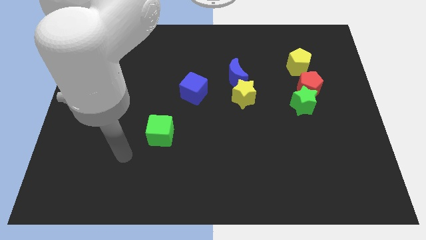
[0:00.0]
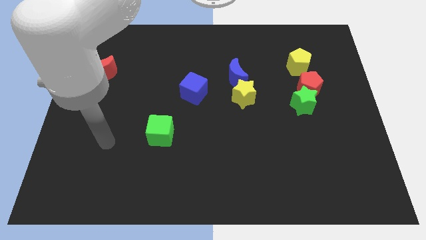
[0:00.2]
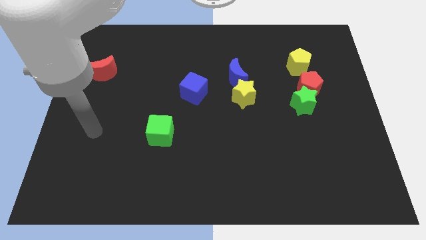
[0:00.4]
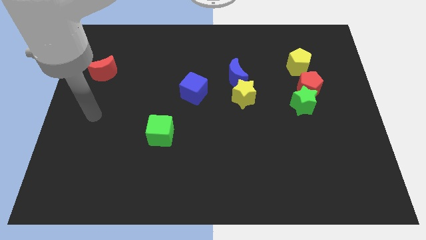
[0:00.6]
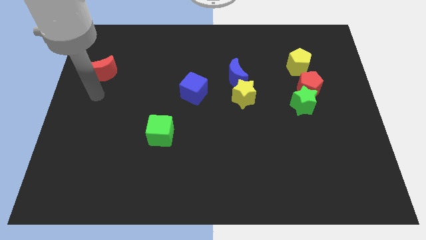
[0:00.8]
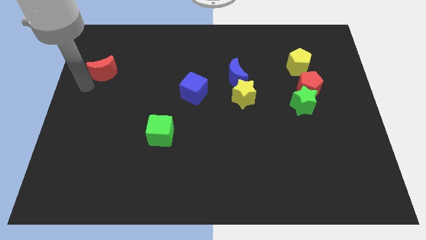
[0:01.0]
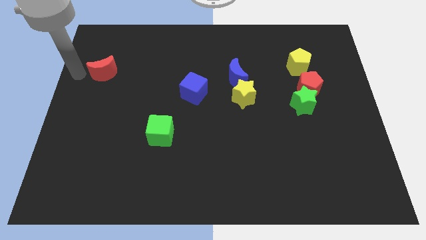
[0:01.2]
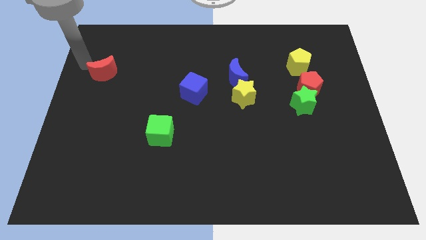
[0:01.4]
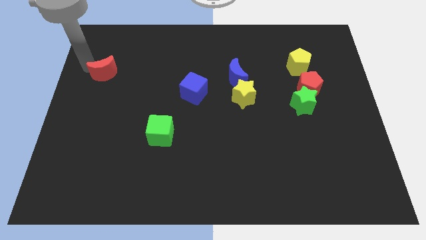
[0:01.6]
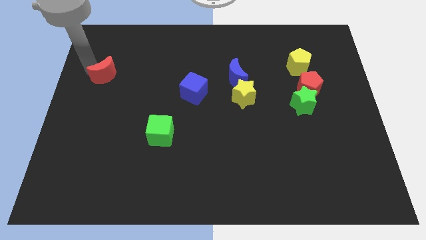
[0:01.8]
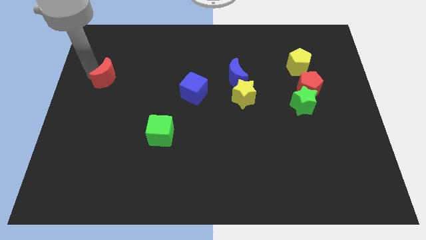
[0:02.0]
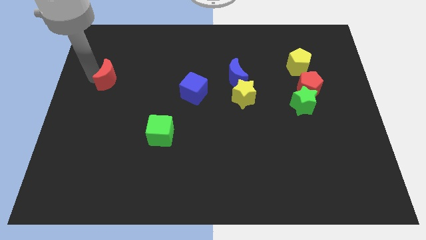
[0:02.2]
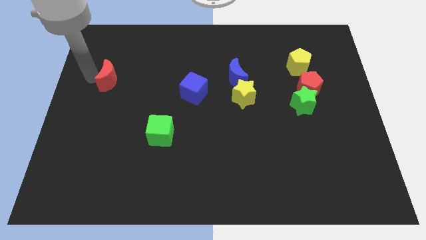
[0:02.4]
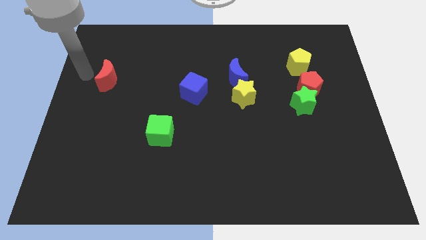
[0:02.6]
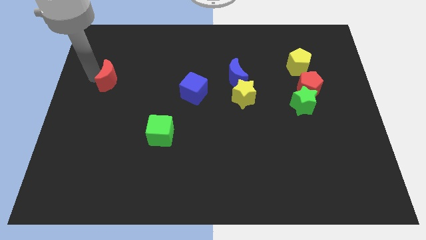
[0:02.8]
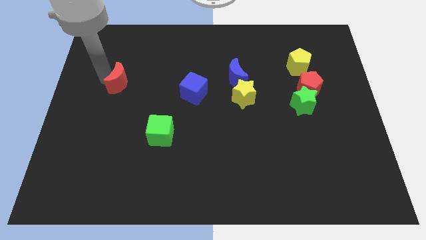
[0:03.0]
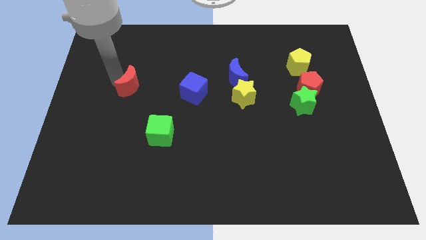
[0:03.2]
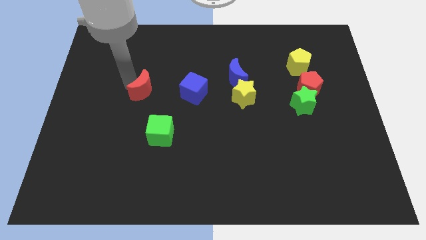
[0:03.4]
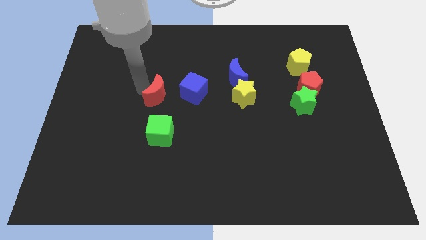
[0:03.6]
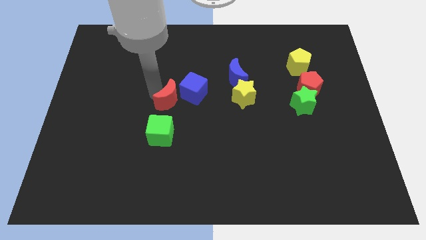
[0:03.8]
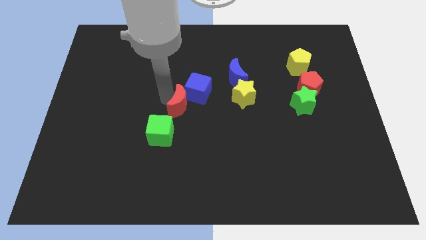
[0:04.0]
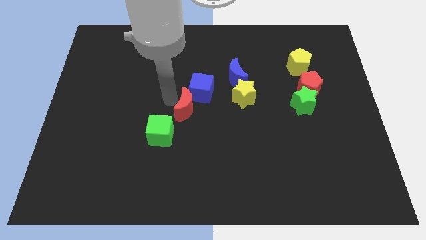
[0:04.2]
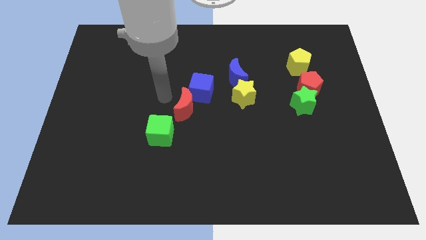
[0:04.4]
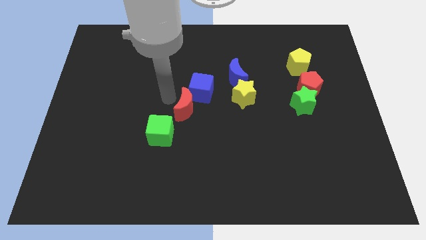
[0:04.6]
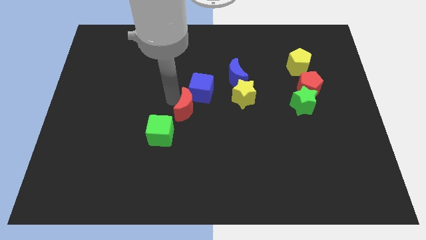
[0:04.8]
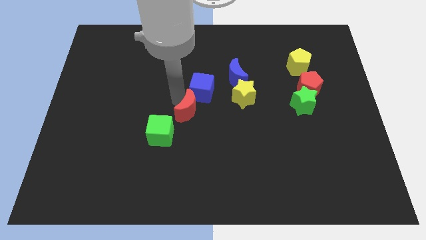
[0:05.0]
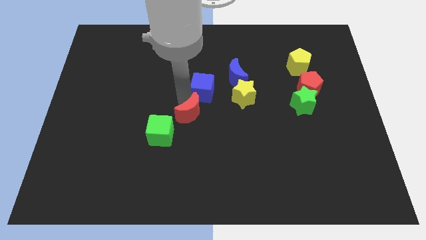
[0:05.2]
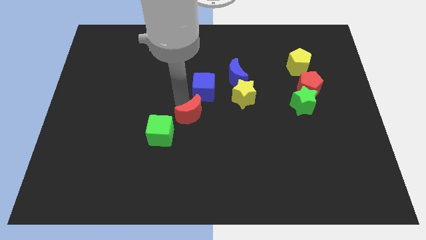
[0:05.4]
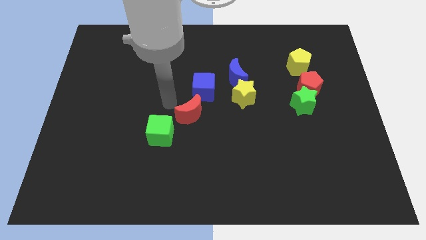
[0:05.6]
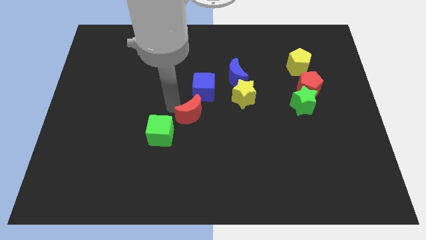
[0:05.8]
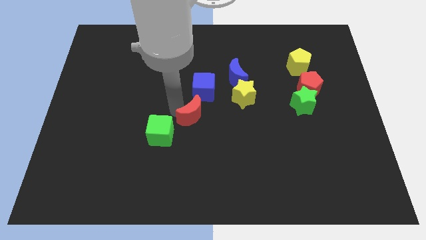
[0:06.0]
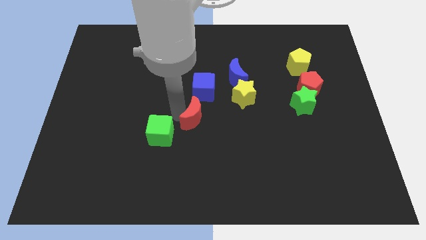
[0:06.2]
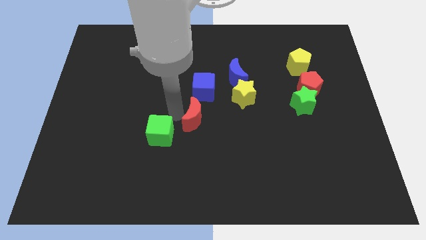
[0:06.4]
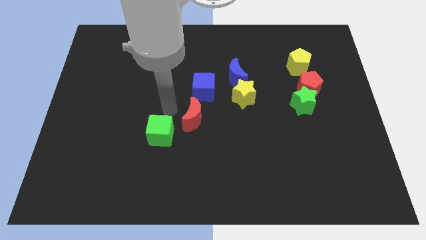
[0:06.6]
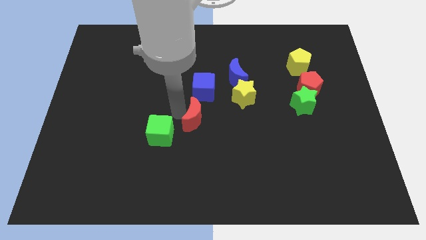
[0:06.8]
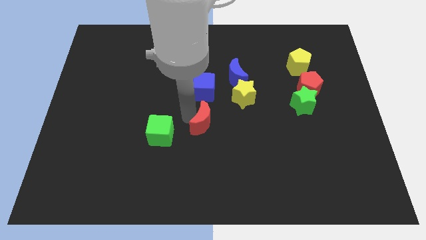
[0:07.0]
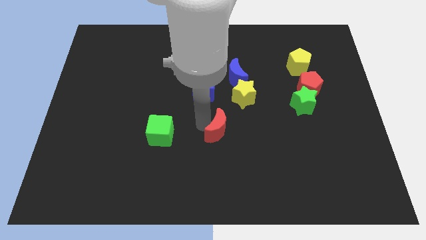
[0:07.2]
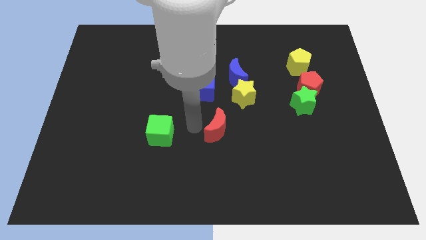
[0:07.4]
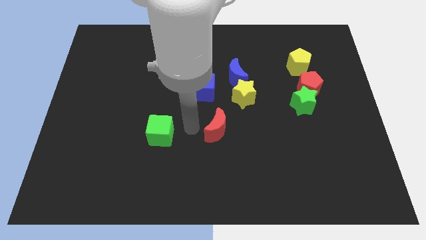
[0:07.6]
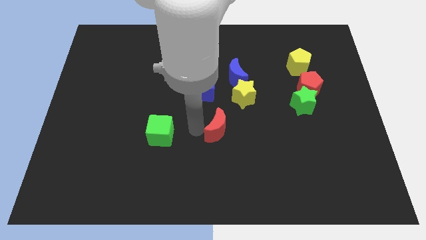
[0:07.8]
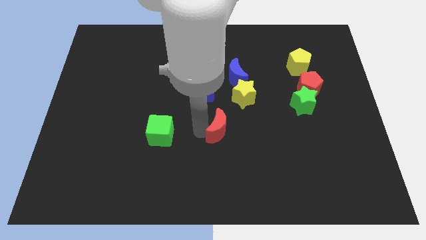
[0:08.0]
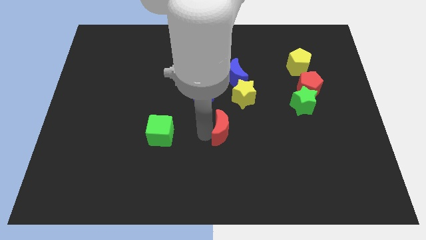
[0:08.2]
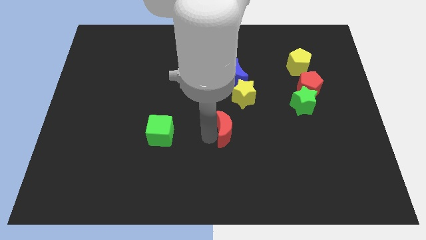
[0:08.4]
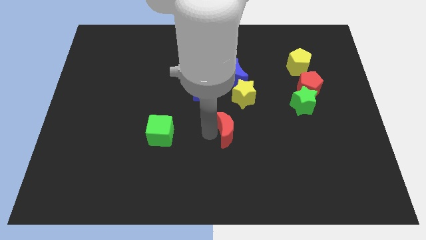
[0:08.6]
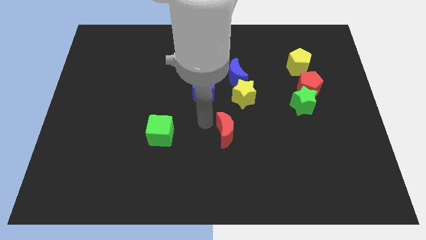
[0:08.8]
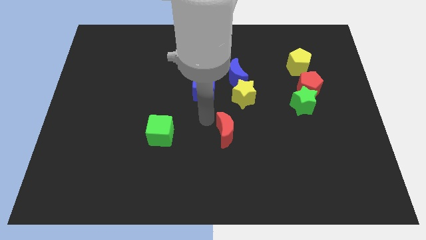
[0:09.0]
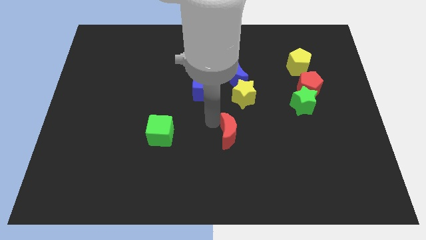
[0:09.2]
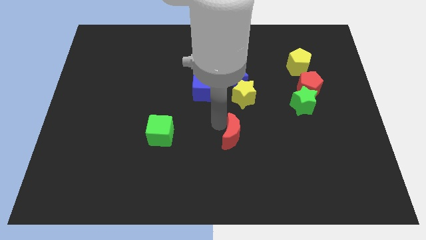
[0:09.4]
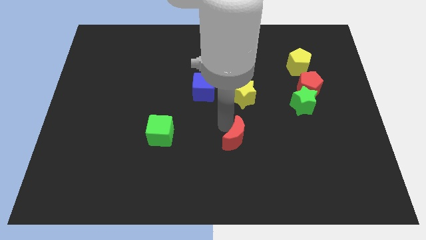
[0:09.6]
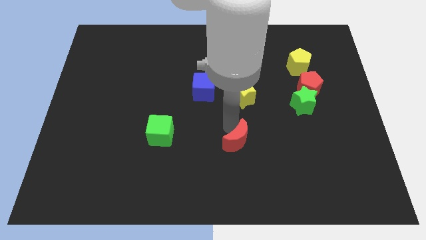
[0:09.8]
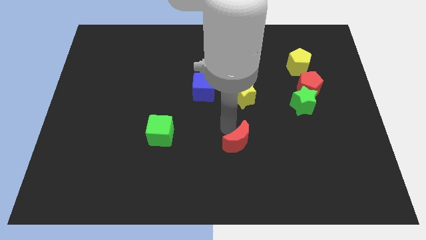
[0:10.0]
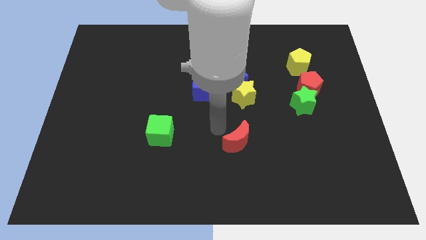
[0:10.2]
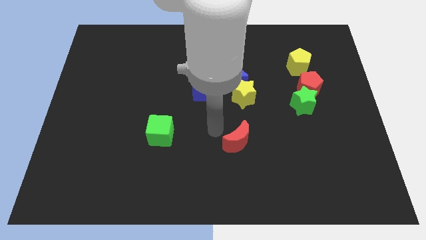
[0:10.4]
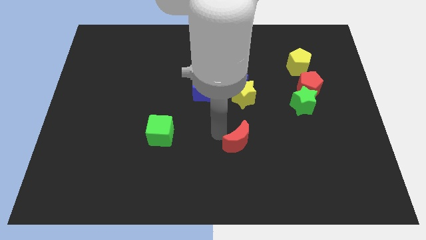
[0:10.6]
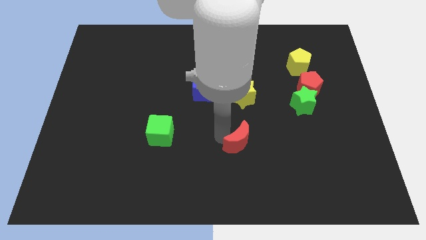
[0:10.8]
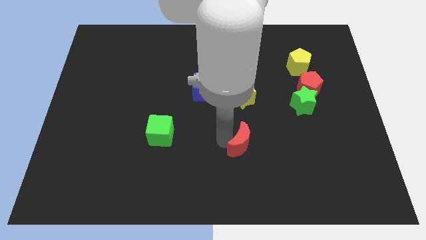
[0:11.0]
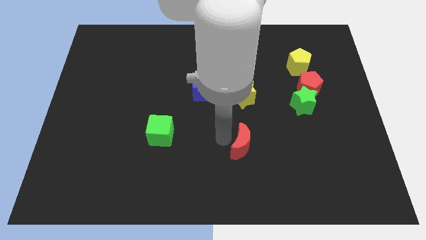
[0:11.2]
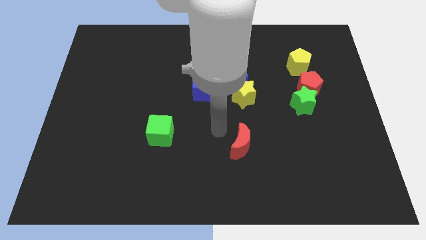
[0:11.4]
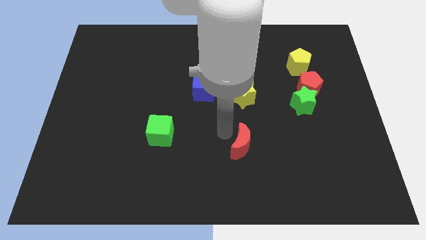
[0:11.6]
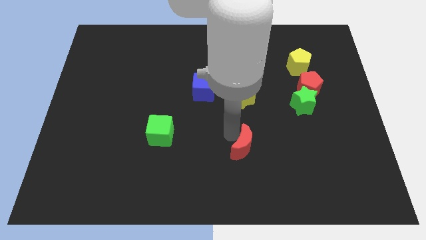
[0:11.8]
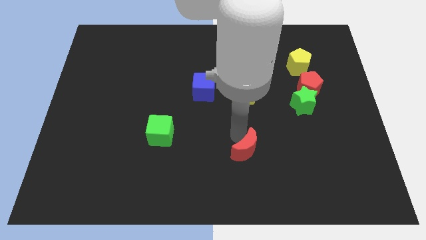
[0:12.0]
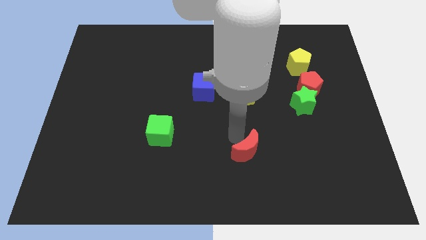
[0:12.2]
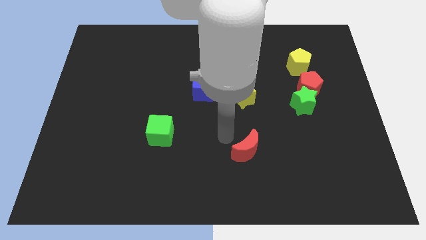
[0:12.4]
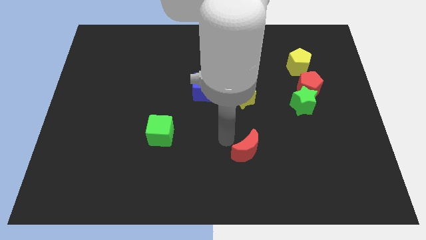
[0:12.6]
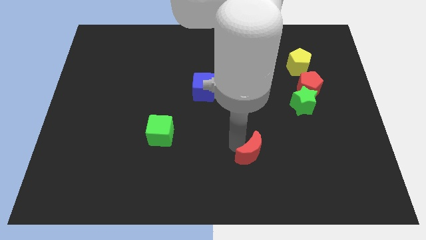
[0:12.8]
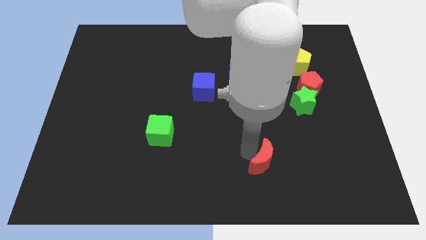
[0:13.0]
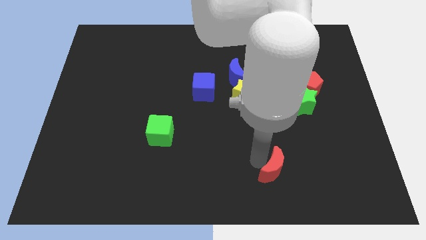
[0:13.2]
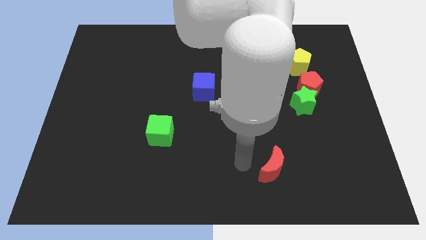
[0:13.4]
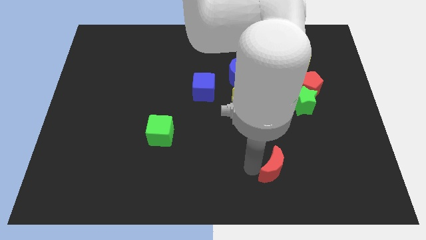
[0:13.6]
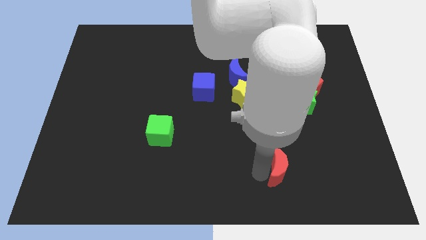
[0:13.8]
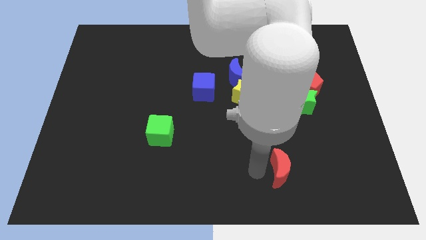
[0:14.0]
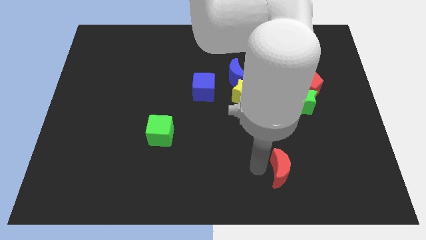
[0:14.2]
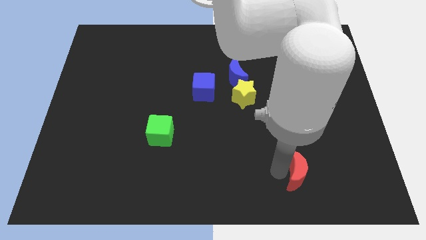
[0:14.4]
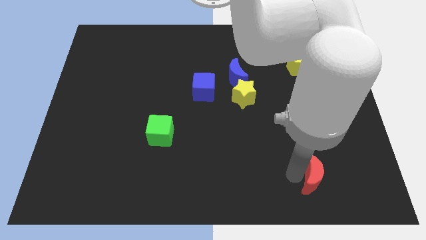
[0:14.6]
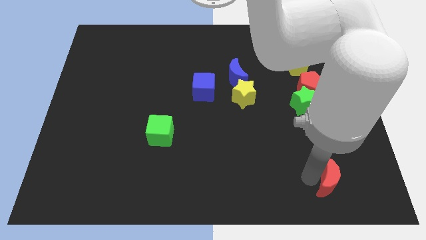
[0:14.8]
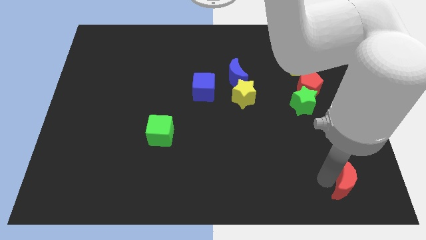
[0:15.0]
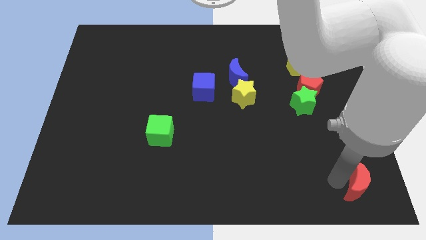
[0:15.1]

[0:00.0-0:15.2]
put the red moon to the bottom right corner
